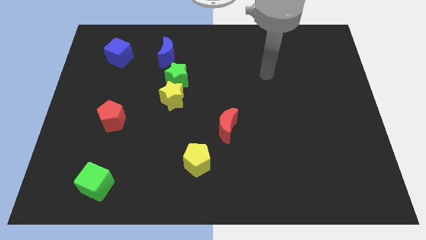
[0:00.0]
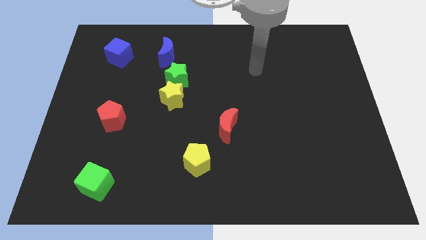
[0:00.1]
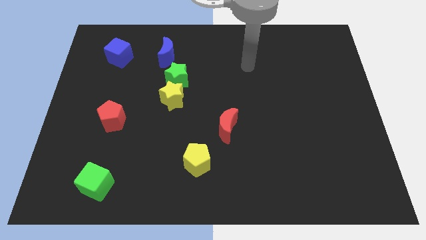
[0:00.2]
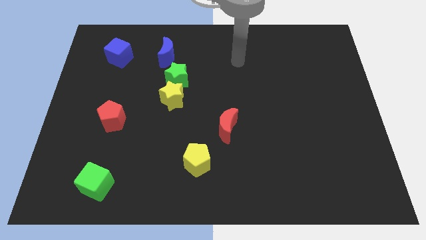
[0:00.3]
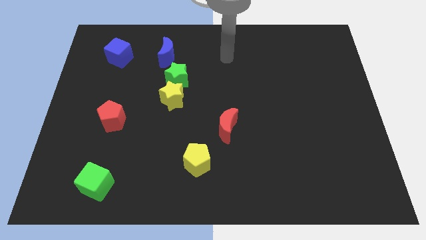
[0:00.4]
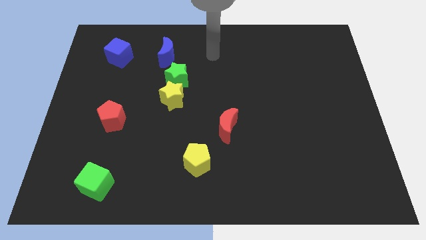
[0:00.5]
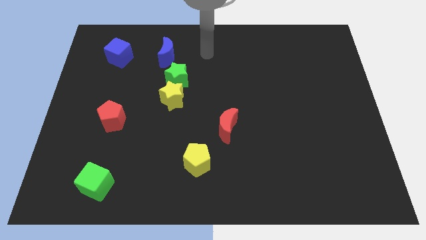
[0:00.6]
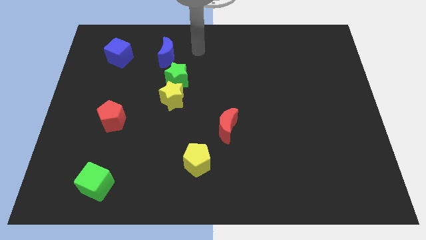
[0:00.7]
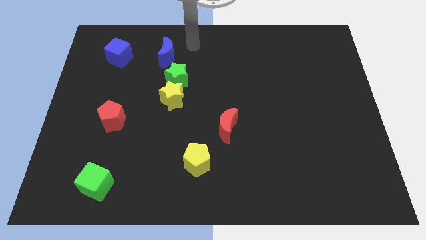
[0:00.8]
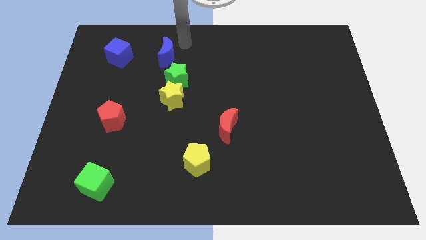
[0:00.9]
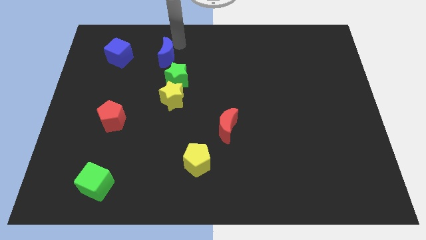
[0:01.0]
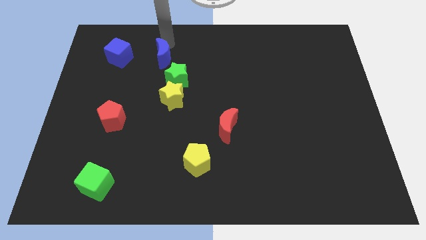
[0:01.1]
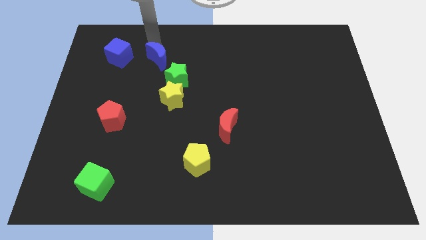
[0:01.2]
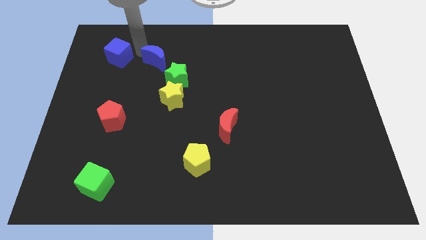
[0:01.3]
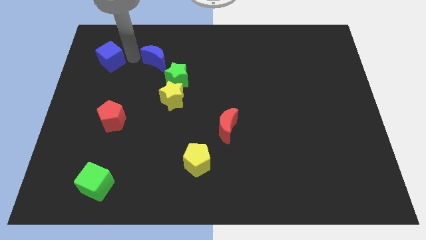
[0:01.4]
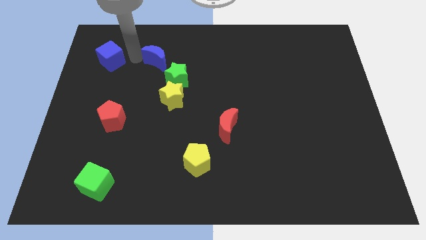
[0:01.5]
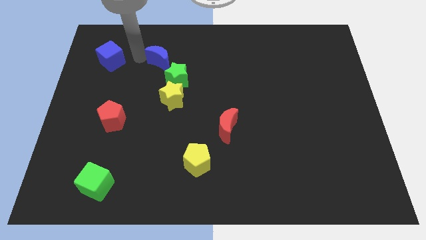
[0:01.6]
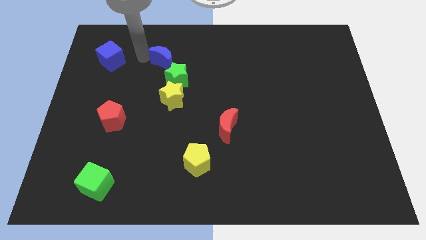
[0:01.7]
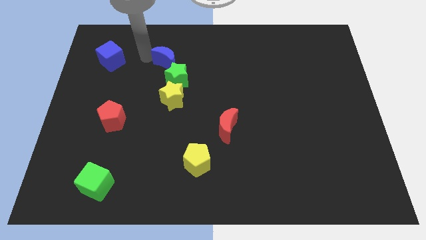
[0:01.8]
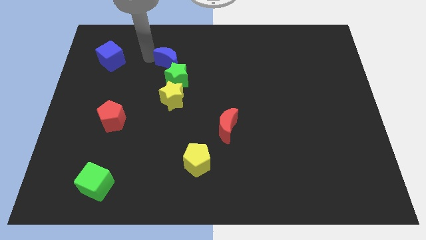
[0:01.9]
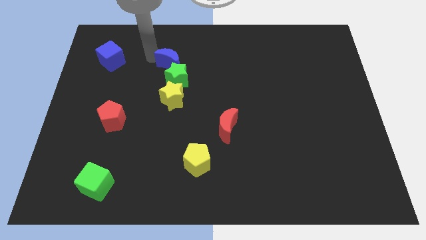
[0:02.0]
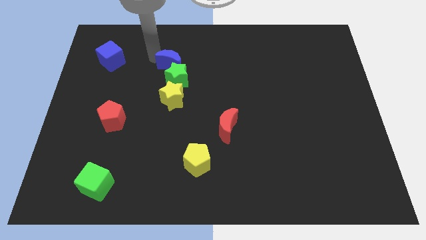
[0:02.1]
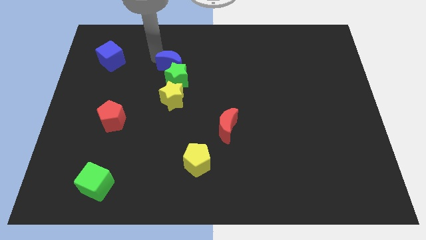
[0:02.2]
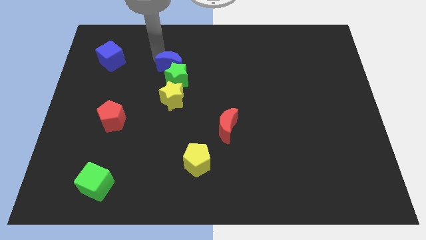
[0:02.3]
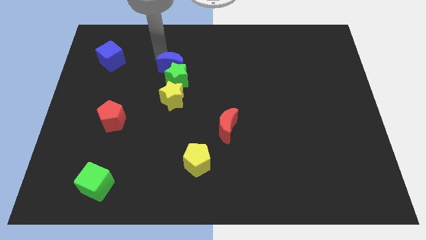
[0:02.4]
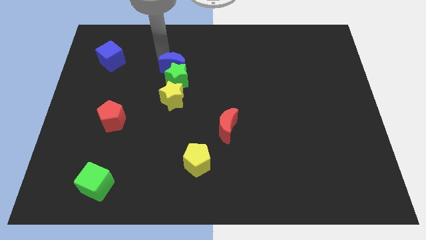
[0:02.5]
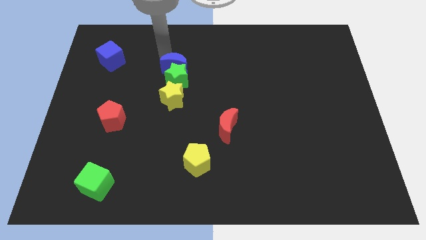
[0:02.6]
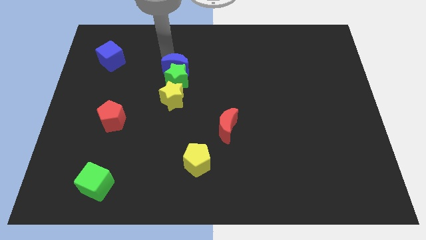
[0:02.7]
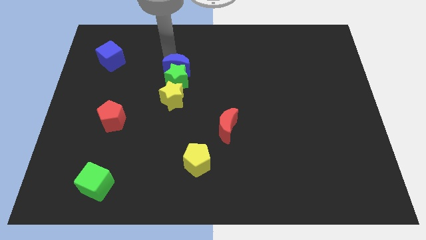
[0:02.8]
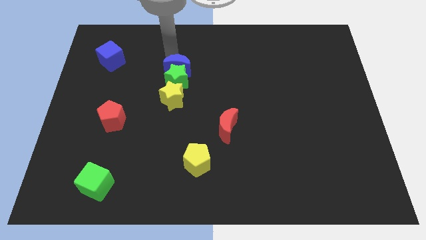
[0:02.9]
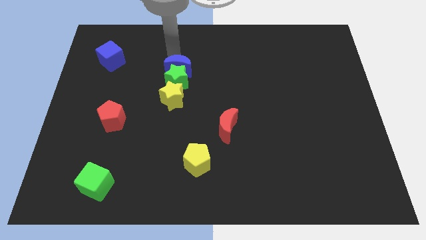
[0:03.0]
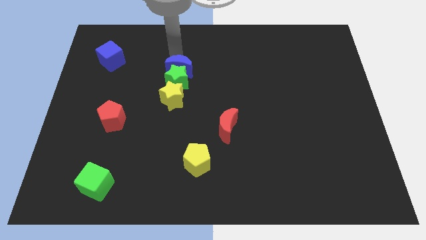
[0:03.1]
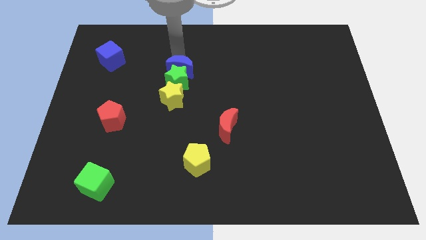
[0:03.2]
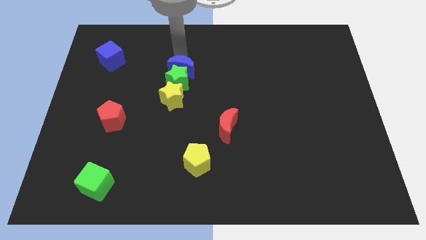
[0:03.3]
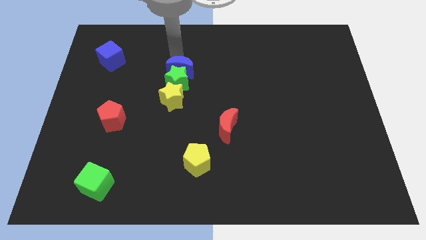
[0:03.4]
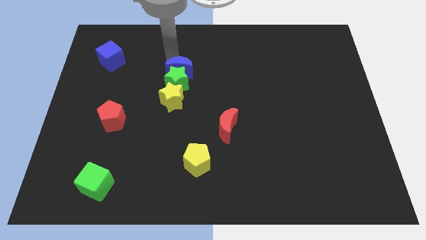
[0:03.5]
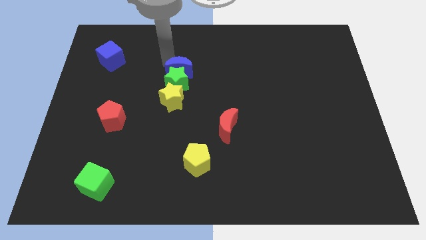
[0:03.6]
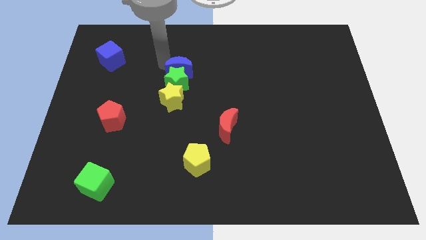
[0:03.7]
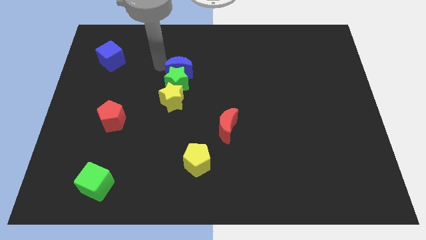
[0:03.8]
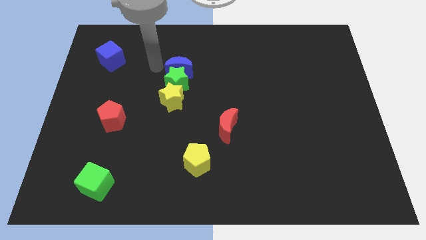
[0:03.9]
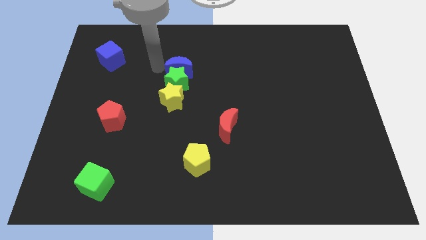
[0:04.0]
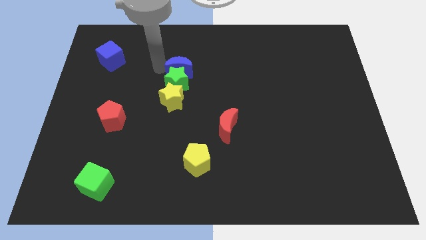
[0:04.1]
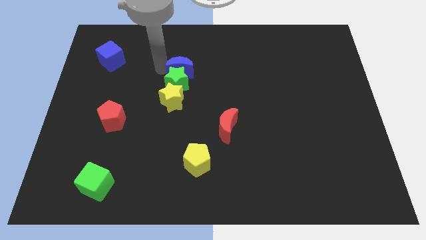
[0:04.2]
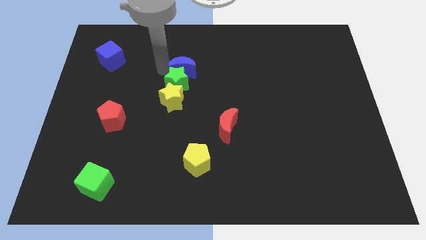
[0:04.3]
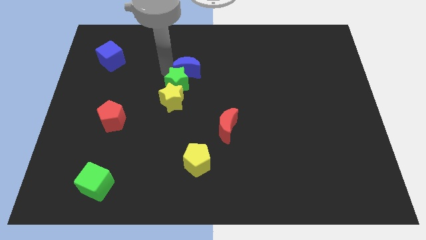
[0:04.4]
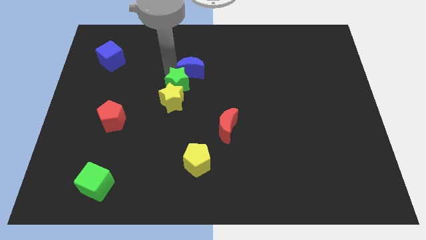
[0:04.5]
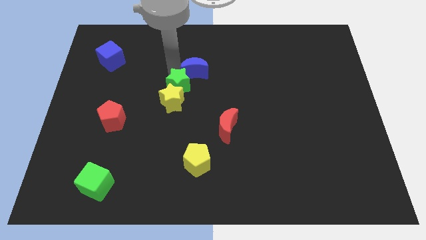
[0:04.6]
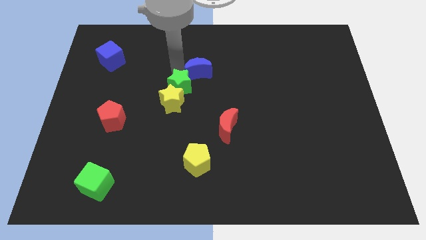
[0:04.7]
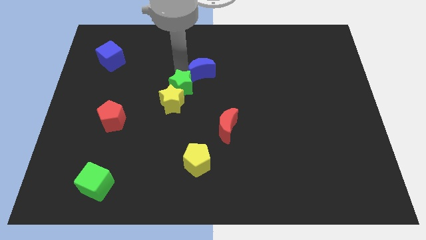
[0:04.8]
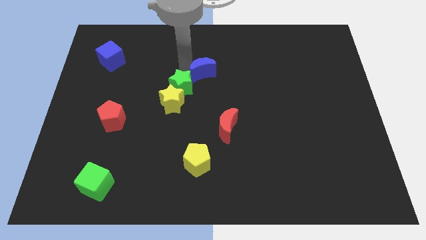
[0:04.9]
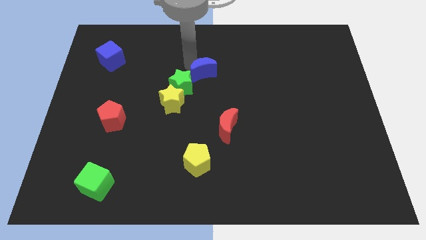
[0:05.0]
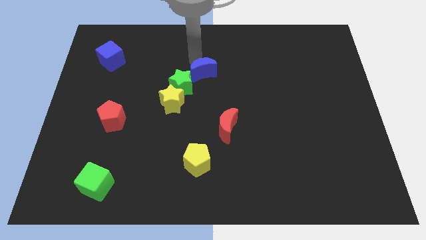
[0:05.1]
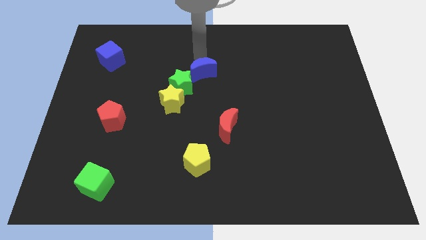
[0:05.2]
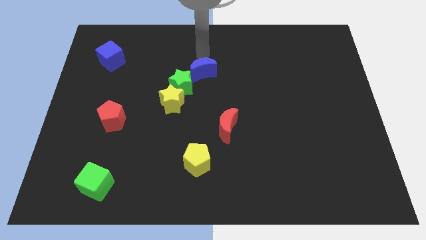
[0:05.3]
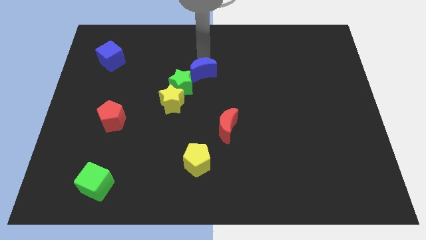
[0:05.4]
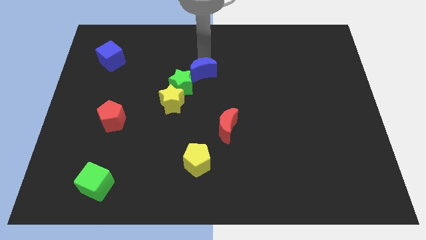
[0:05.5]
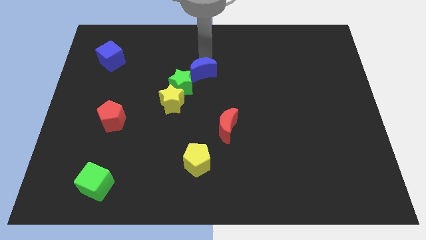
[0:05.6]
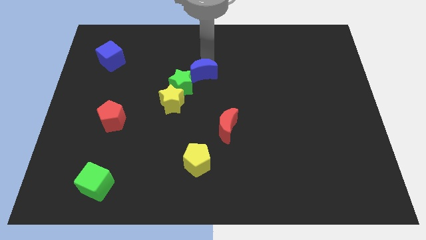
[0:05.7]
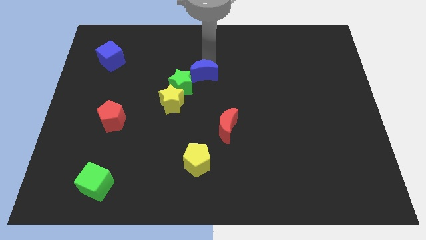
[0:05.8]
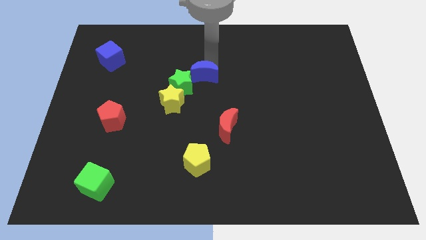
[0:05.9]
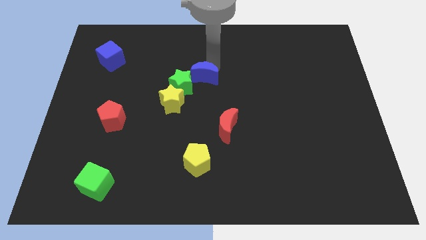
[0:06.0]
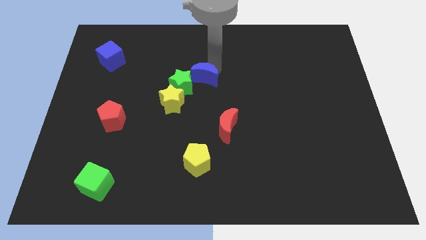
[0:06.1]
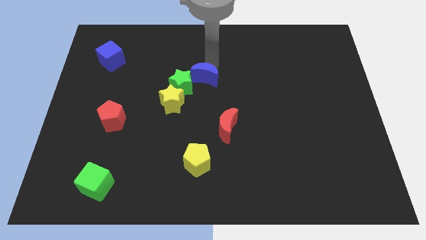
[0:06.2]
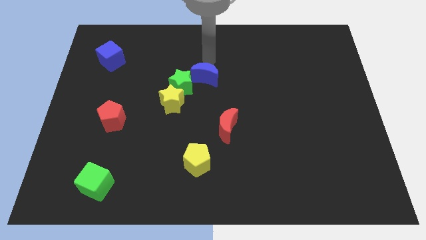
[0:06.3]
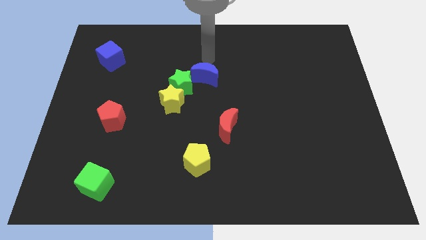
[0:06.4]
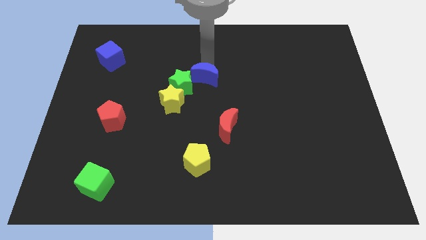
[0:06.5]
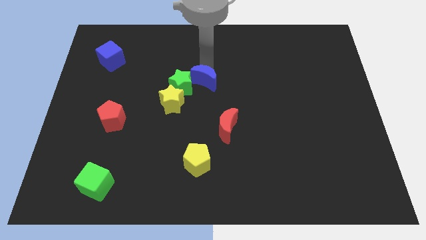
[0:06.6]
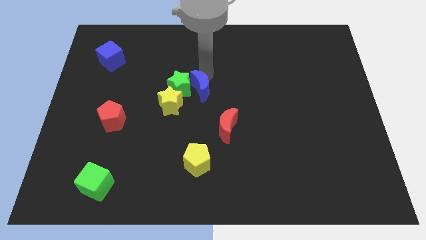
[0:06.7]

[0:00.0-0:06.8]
slide the blue moon to the bottom right side of the green star
